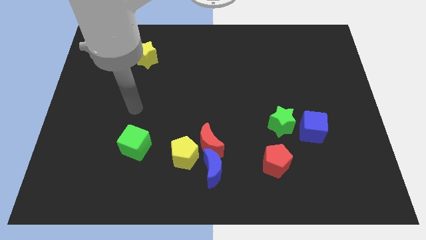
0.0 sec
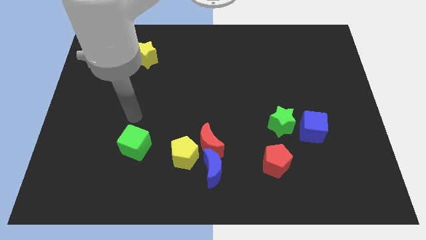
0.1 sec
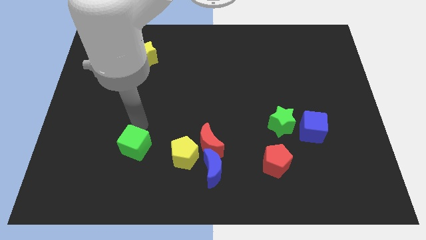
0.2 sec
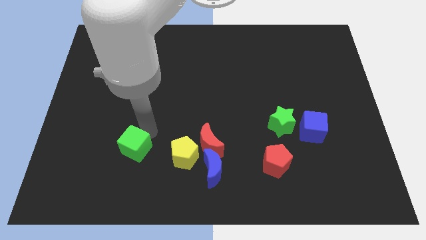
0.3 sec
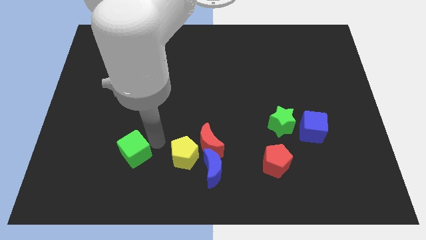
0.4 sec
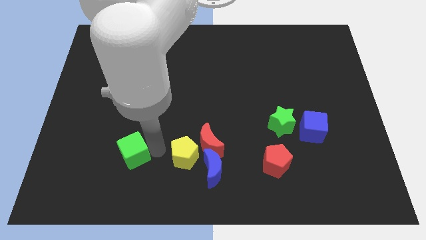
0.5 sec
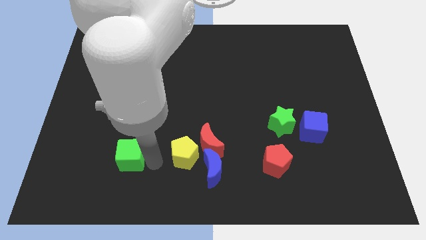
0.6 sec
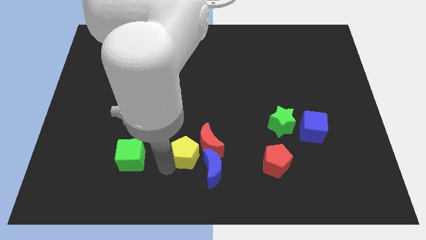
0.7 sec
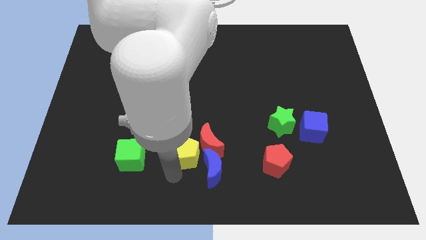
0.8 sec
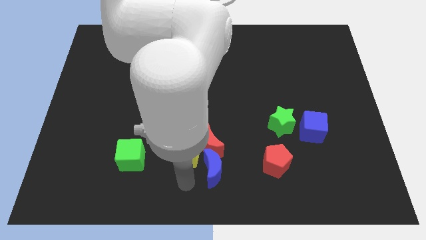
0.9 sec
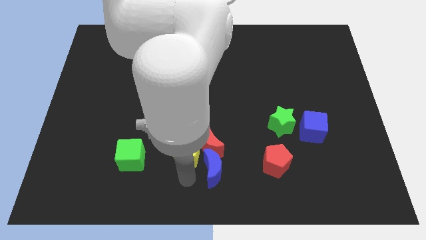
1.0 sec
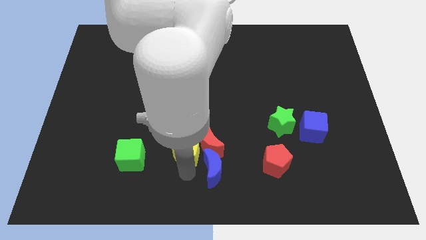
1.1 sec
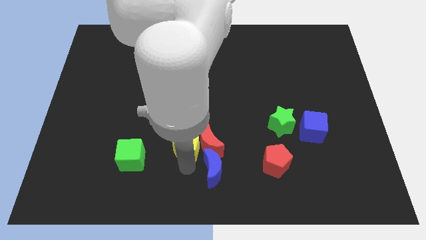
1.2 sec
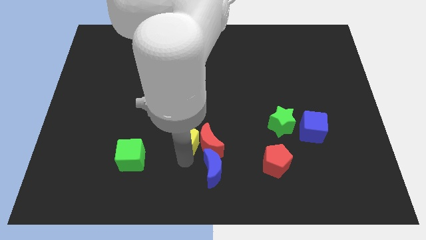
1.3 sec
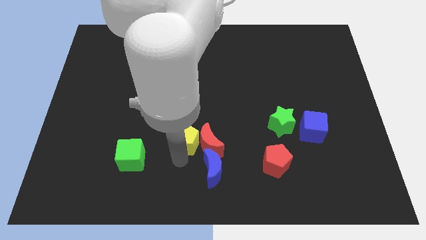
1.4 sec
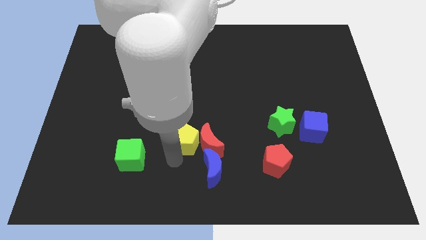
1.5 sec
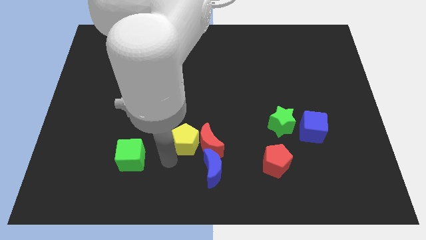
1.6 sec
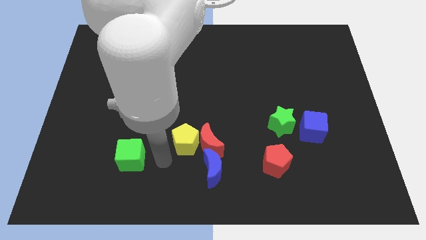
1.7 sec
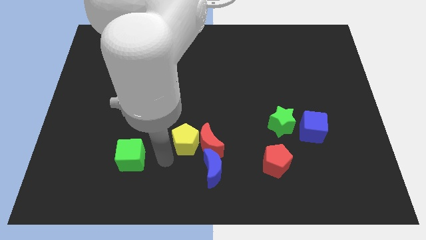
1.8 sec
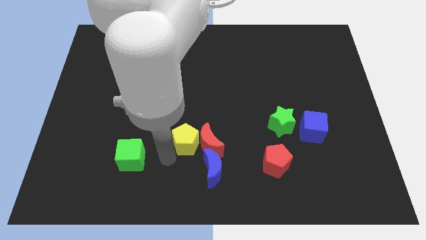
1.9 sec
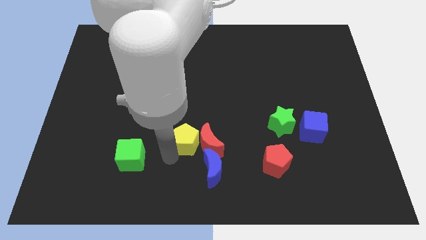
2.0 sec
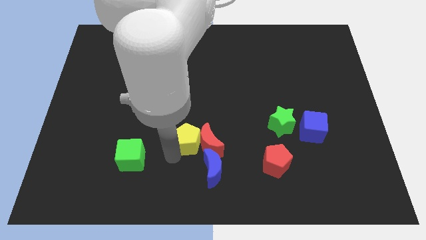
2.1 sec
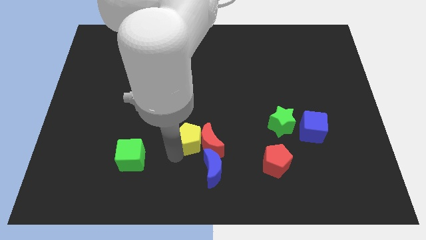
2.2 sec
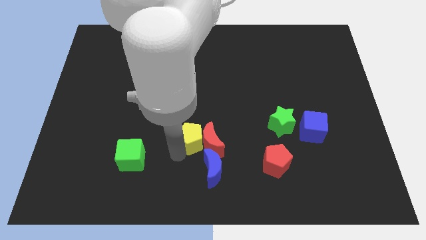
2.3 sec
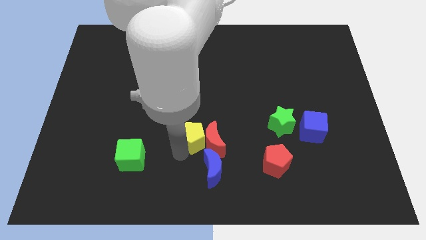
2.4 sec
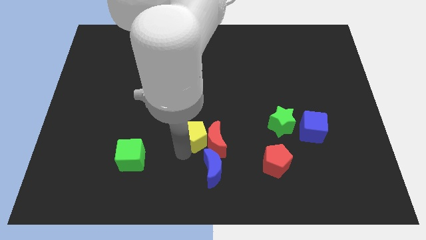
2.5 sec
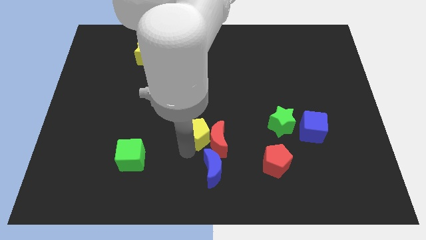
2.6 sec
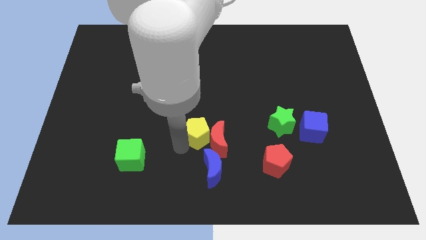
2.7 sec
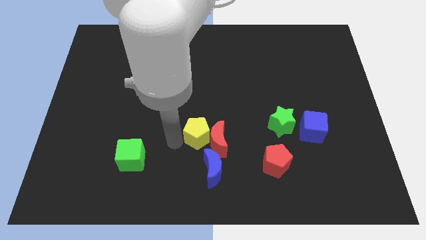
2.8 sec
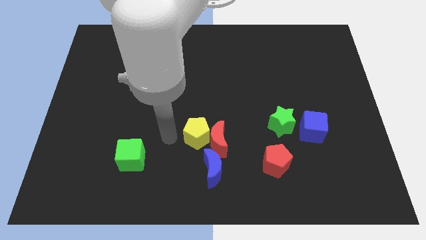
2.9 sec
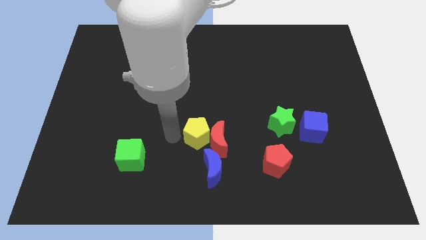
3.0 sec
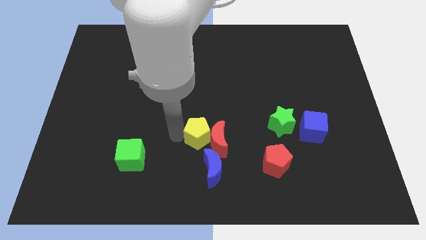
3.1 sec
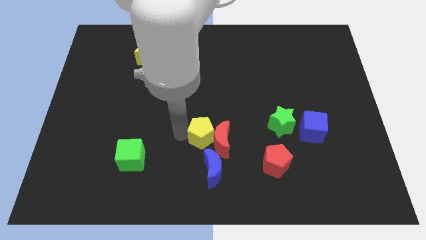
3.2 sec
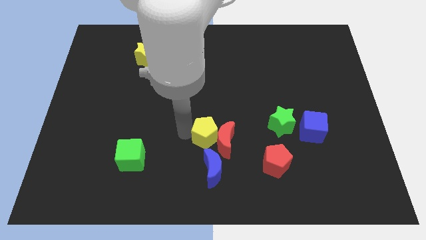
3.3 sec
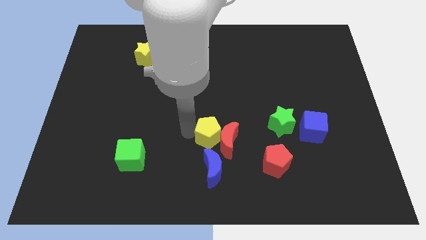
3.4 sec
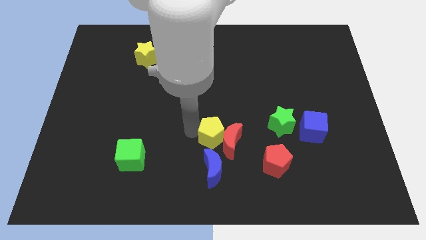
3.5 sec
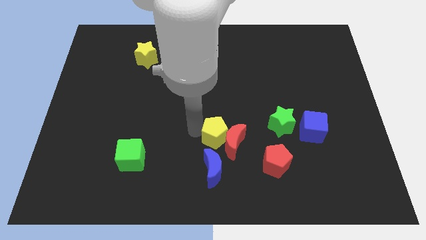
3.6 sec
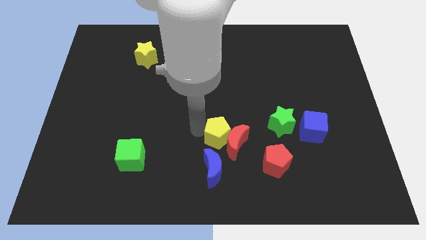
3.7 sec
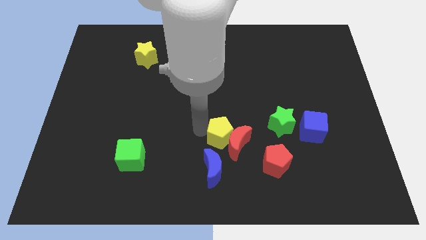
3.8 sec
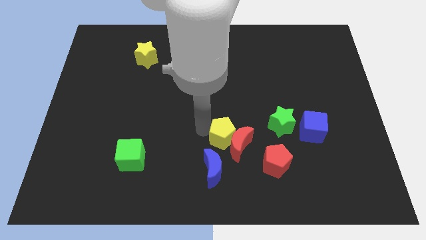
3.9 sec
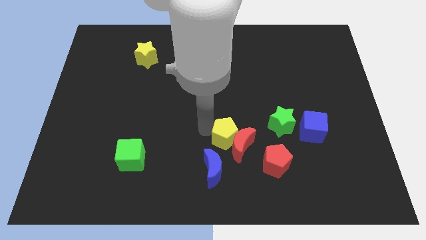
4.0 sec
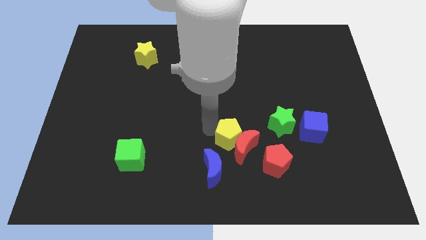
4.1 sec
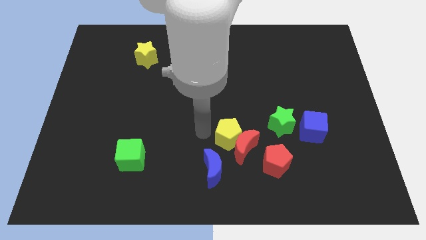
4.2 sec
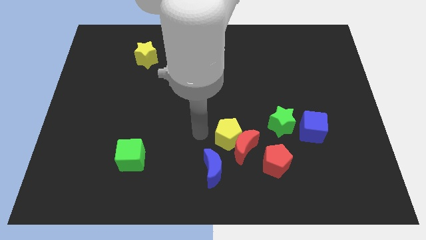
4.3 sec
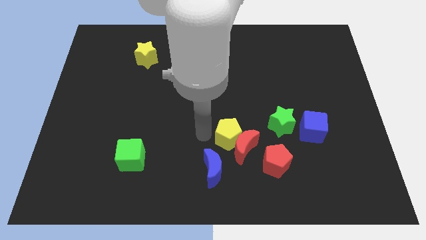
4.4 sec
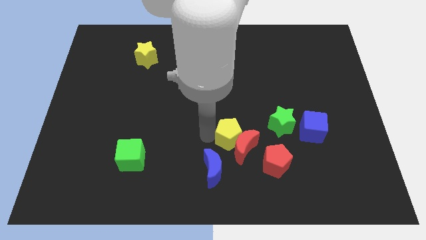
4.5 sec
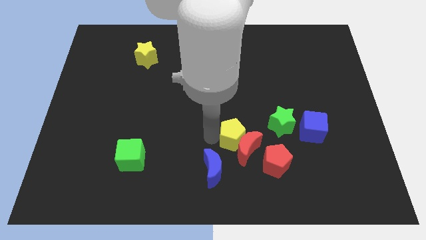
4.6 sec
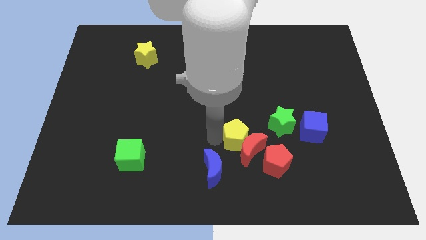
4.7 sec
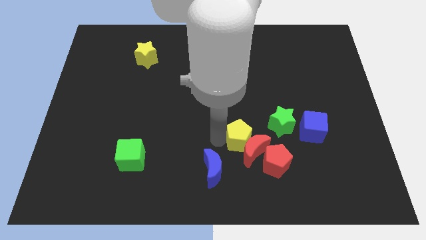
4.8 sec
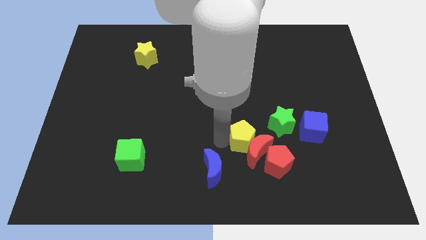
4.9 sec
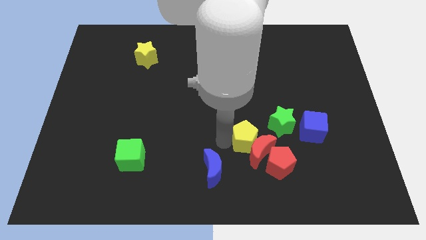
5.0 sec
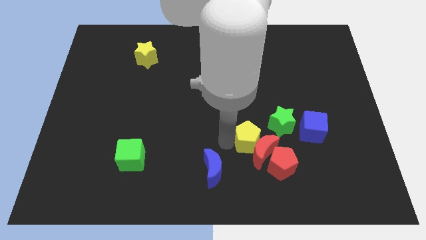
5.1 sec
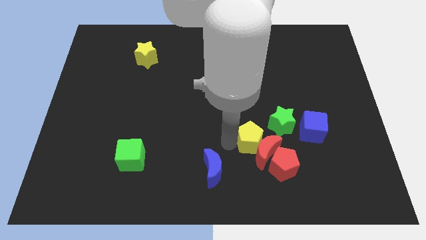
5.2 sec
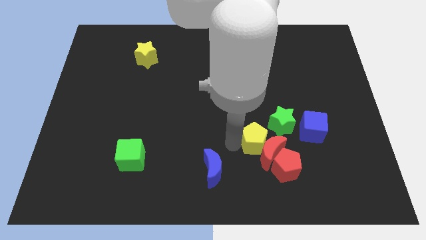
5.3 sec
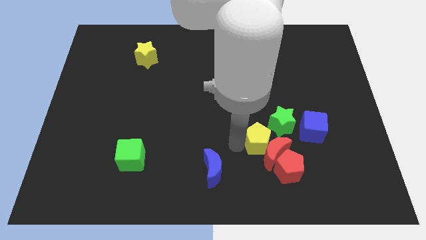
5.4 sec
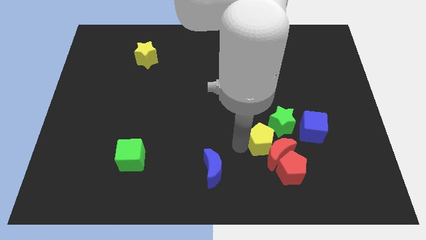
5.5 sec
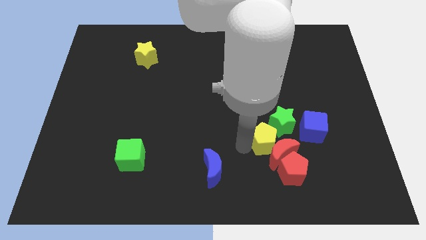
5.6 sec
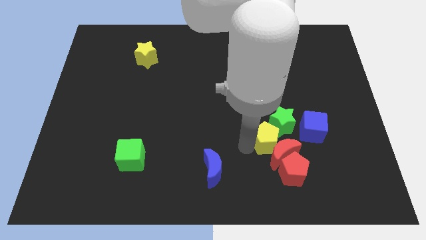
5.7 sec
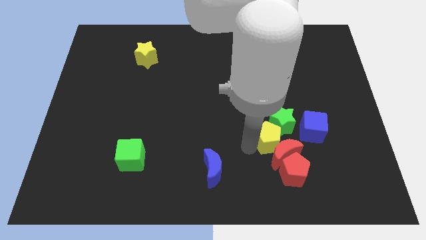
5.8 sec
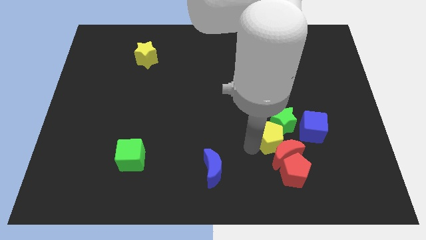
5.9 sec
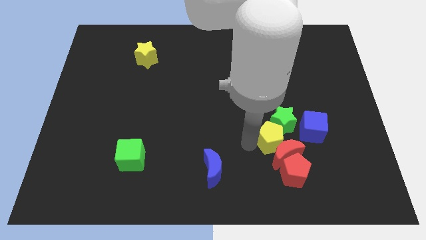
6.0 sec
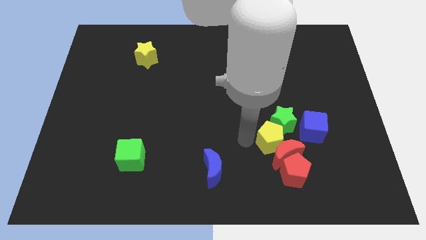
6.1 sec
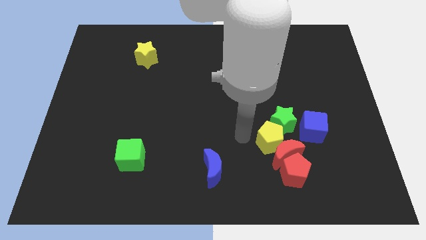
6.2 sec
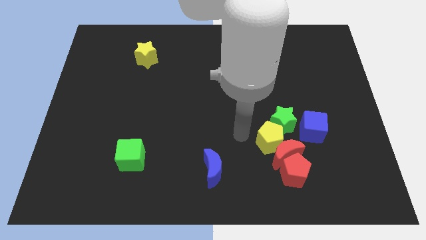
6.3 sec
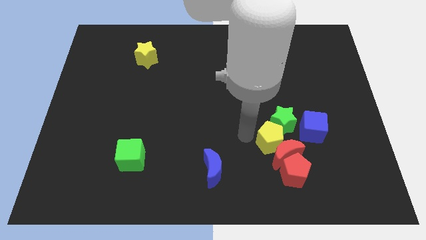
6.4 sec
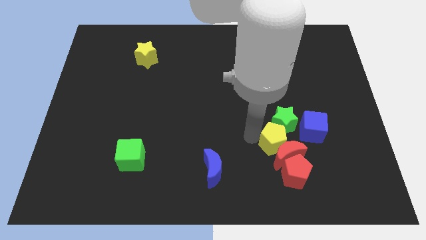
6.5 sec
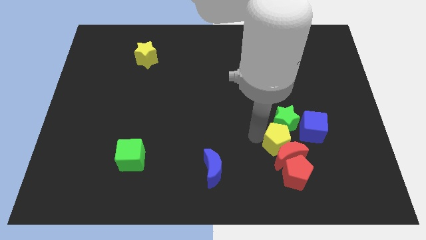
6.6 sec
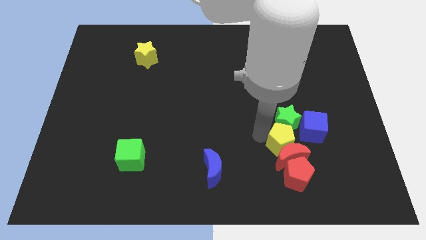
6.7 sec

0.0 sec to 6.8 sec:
slide the yellow pentagon right

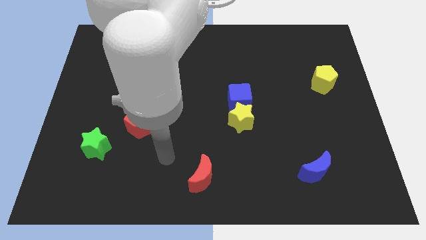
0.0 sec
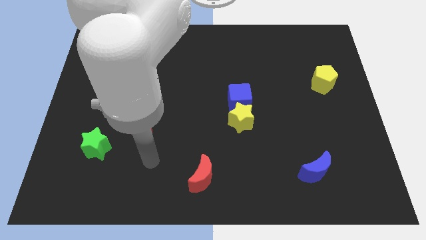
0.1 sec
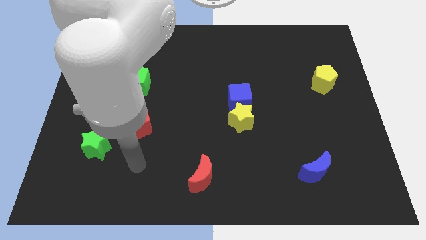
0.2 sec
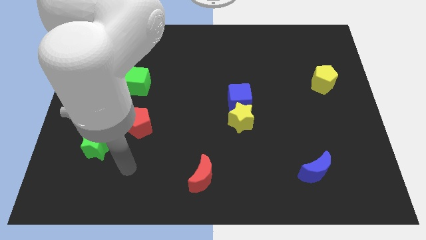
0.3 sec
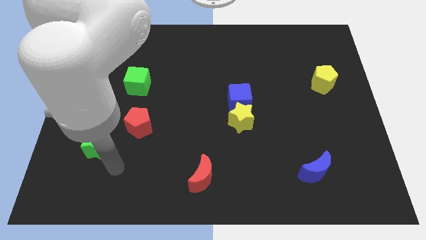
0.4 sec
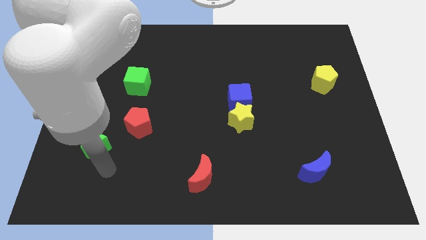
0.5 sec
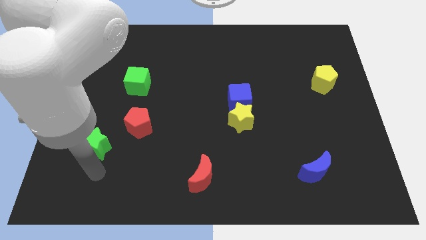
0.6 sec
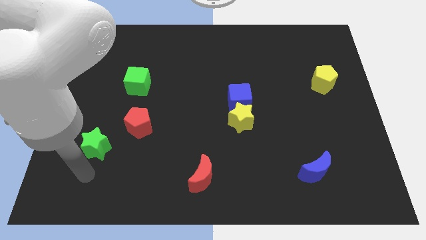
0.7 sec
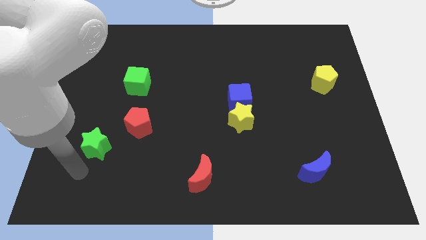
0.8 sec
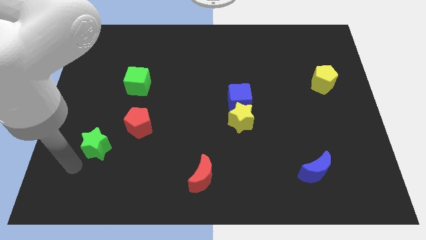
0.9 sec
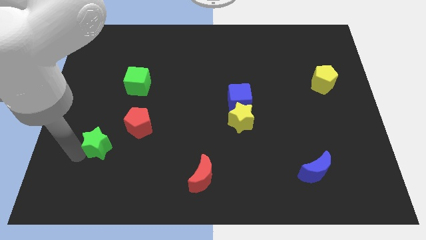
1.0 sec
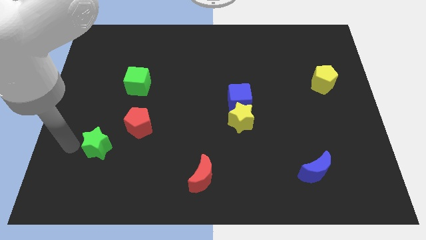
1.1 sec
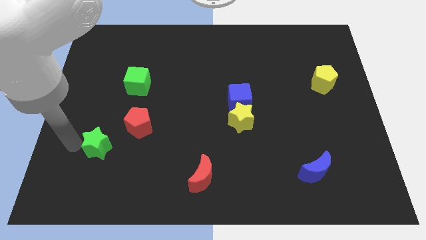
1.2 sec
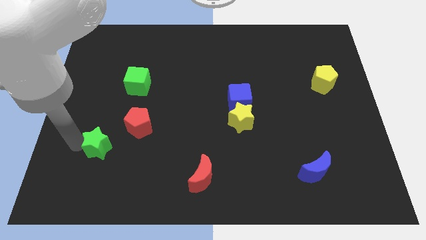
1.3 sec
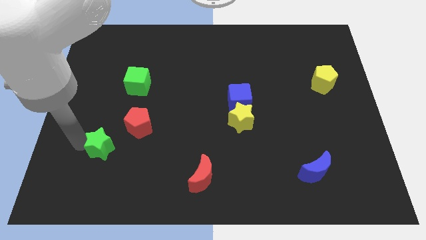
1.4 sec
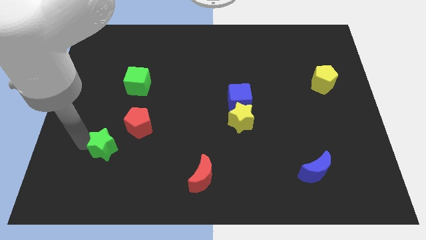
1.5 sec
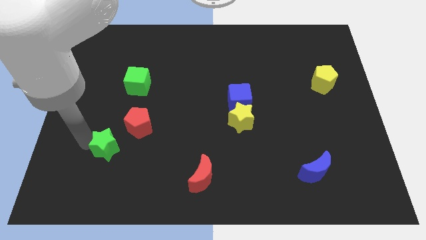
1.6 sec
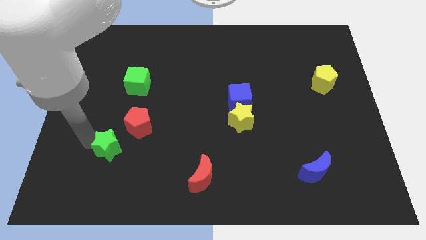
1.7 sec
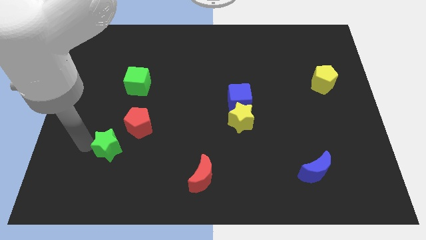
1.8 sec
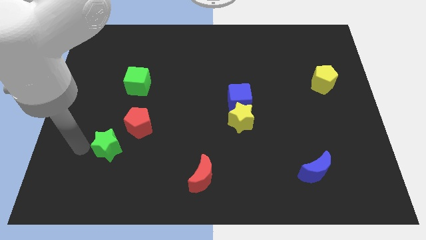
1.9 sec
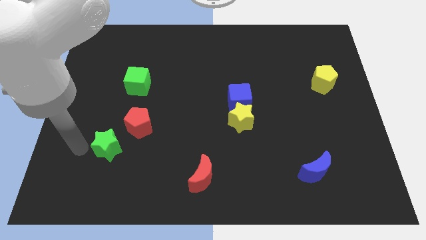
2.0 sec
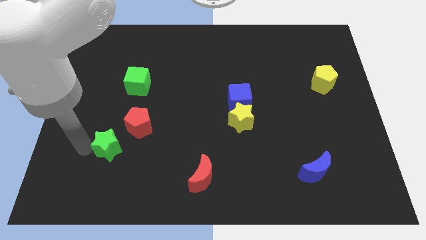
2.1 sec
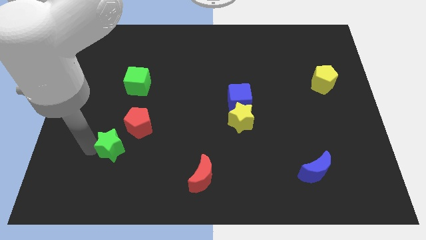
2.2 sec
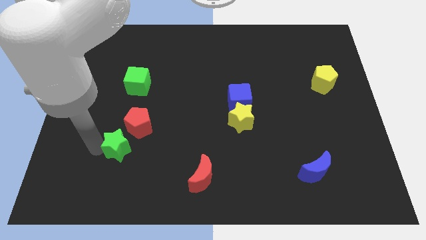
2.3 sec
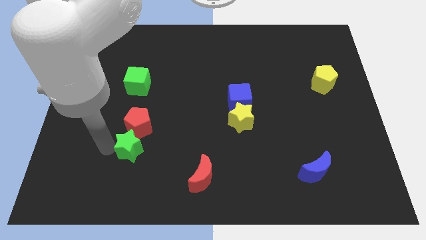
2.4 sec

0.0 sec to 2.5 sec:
push the green star a little bit right
